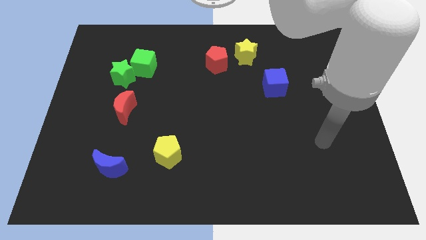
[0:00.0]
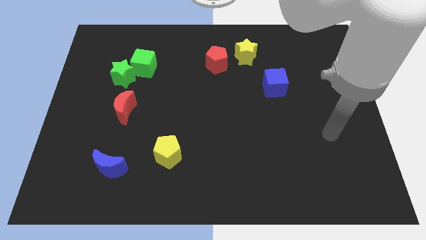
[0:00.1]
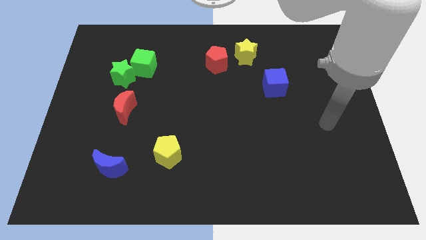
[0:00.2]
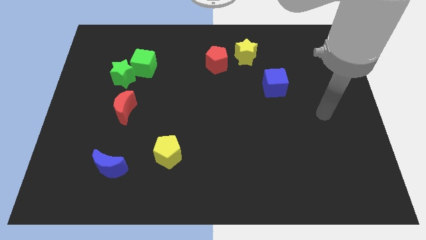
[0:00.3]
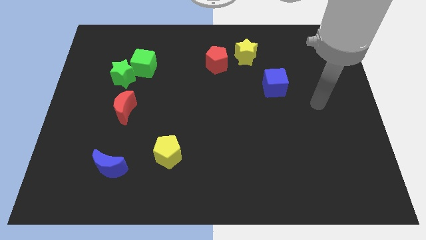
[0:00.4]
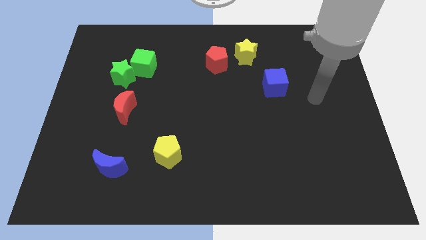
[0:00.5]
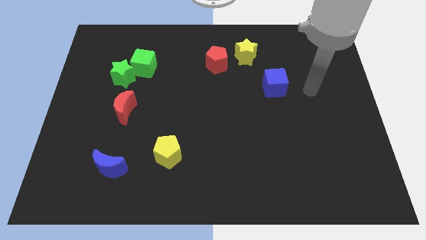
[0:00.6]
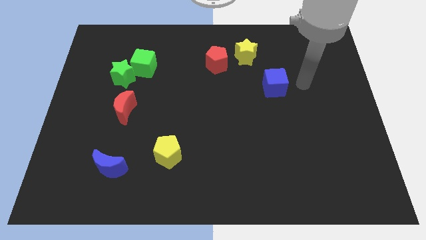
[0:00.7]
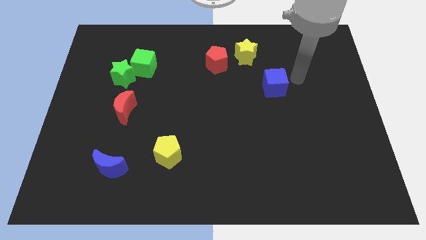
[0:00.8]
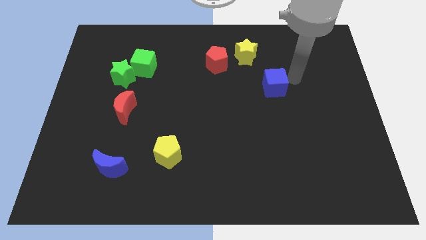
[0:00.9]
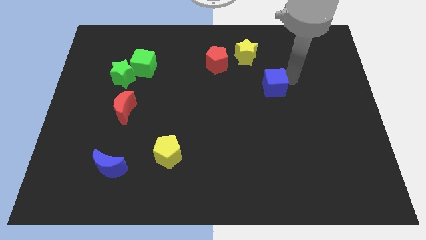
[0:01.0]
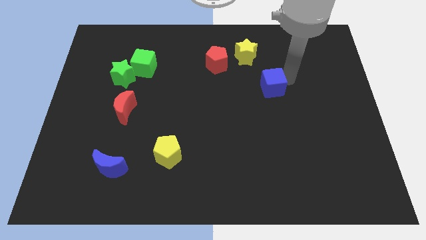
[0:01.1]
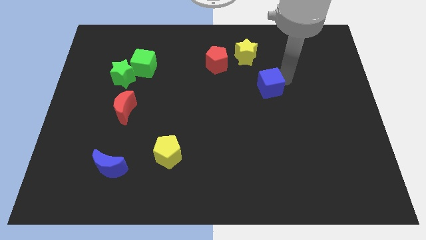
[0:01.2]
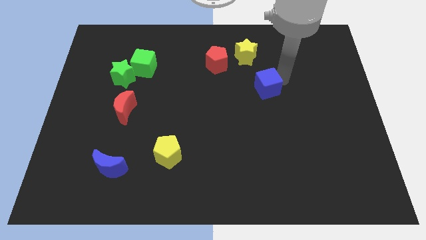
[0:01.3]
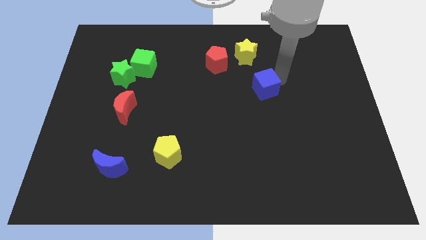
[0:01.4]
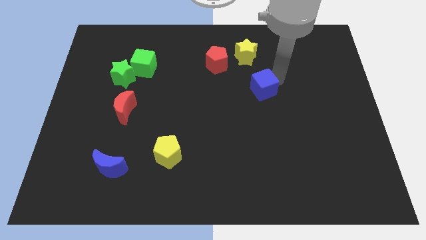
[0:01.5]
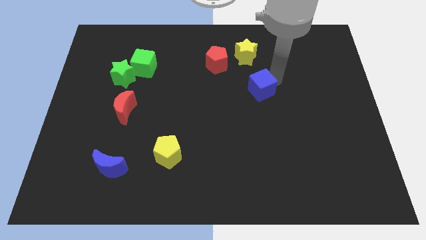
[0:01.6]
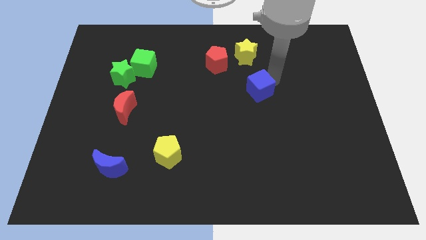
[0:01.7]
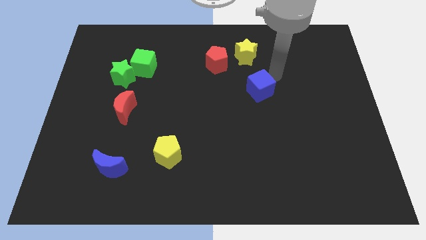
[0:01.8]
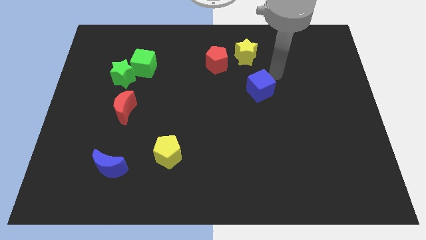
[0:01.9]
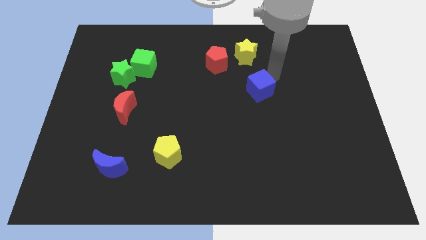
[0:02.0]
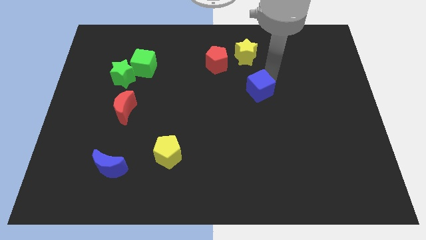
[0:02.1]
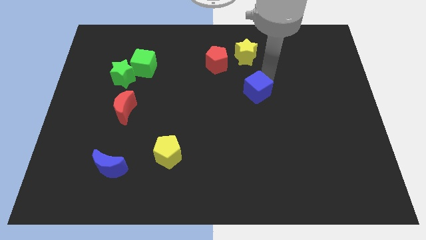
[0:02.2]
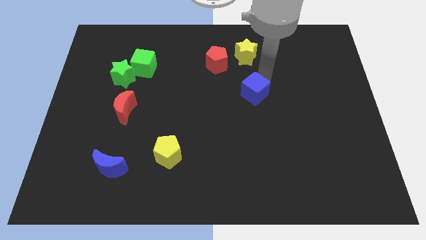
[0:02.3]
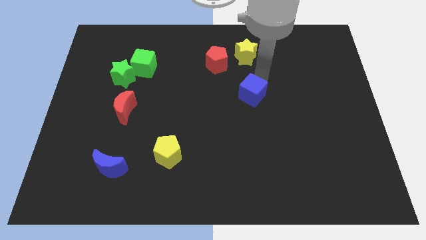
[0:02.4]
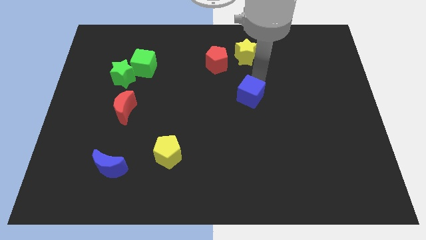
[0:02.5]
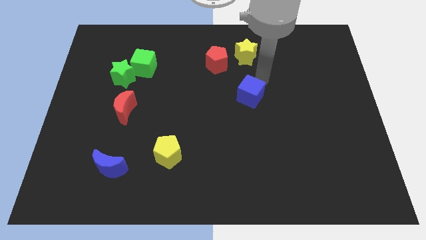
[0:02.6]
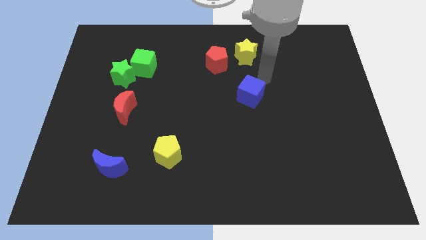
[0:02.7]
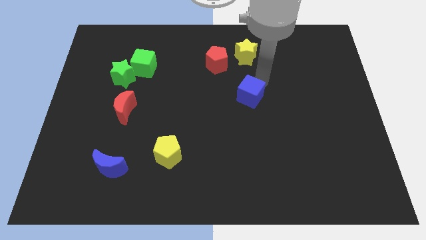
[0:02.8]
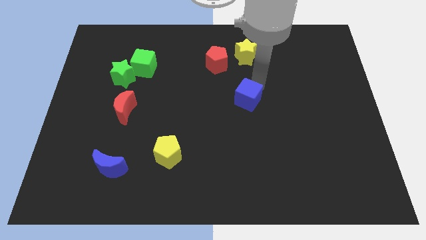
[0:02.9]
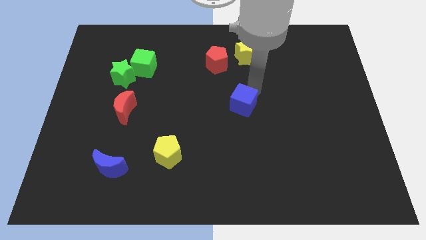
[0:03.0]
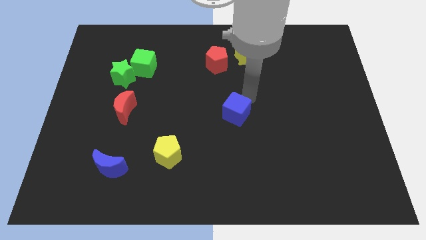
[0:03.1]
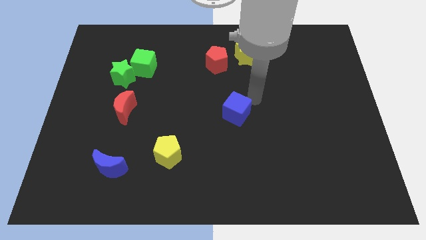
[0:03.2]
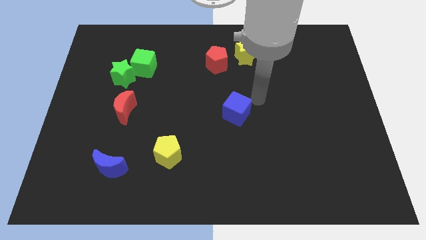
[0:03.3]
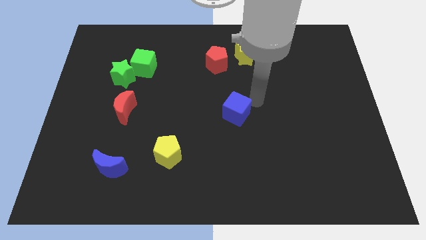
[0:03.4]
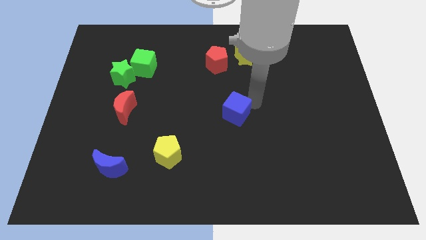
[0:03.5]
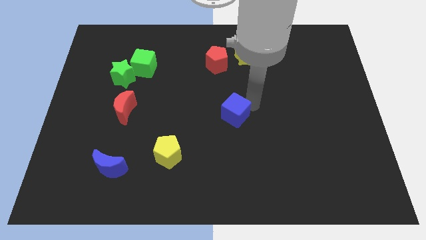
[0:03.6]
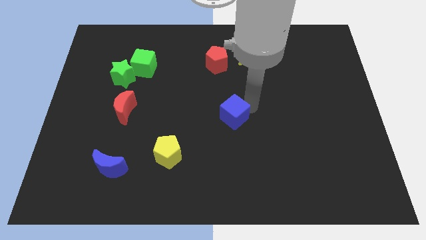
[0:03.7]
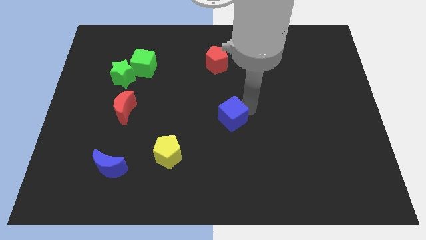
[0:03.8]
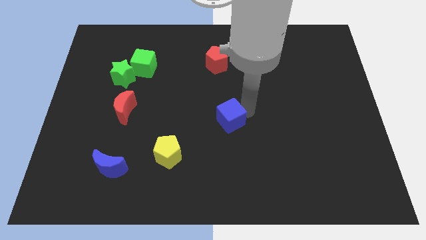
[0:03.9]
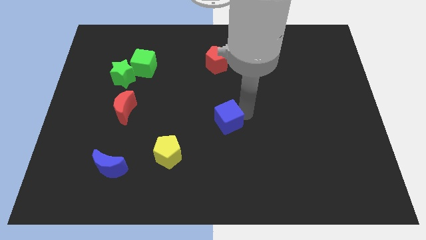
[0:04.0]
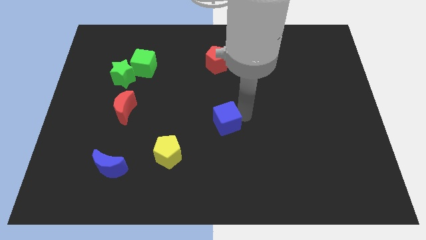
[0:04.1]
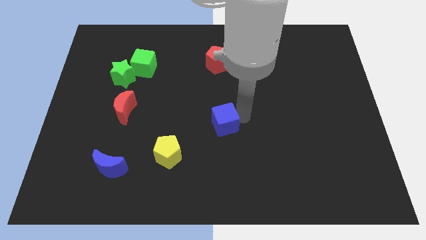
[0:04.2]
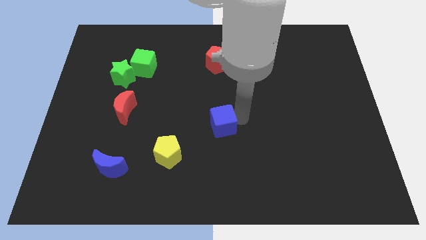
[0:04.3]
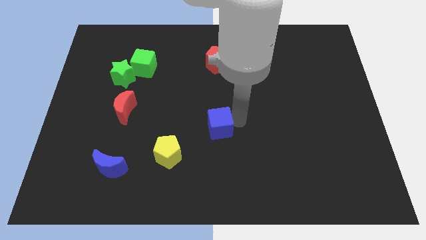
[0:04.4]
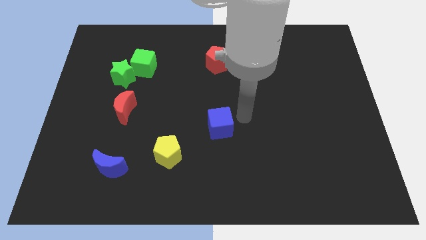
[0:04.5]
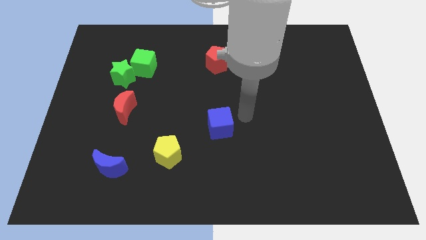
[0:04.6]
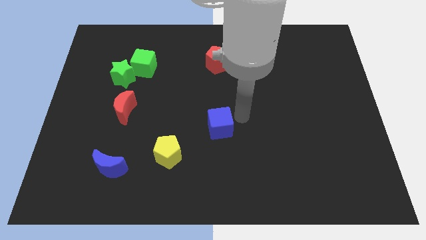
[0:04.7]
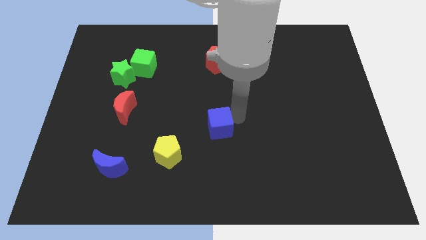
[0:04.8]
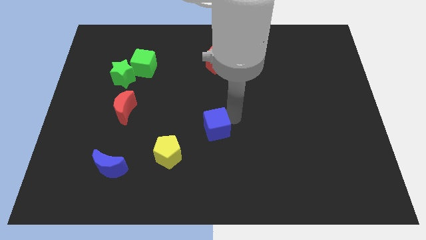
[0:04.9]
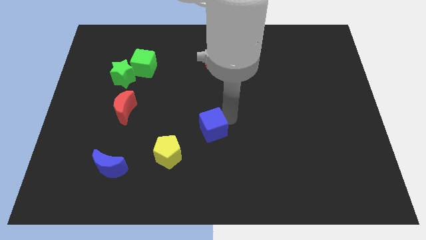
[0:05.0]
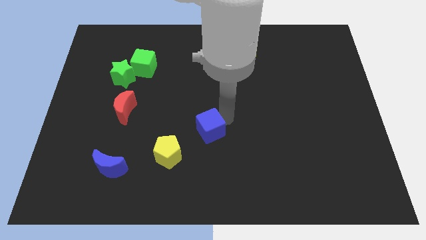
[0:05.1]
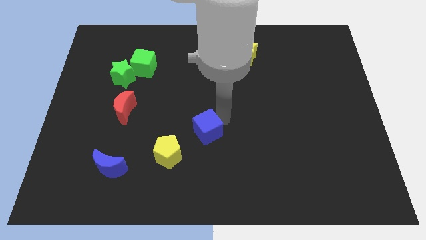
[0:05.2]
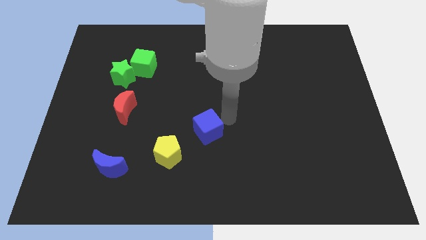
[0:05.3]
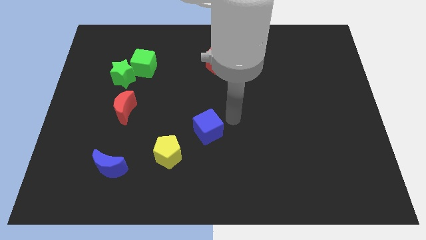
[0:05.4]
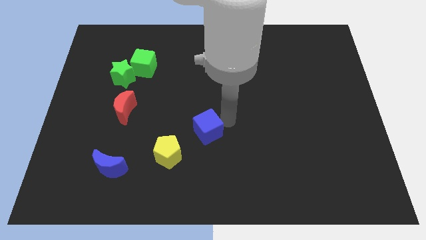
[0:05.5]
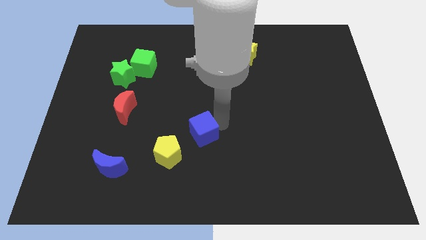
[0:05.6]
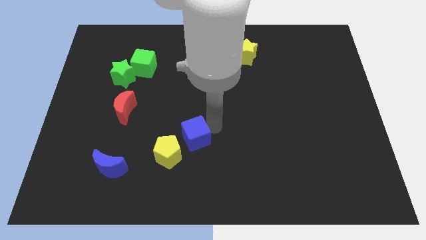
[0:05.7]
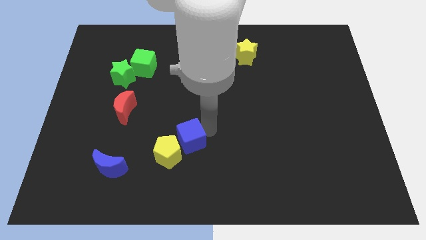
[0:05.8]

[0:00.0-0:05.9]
push the blue cube close to the yellow pentagon
